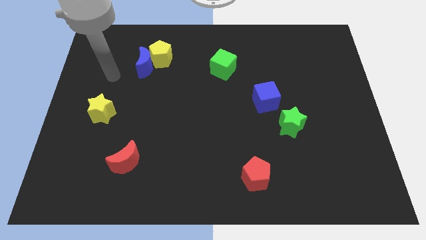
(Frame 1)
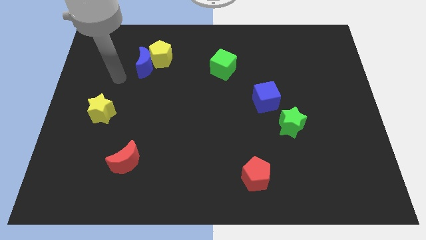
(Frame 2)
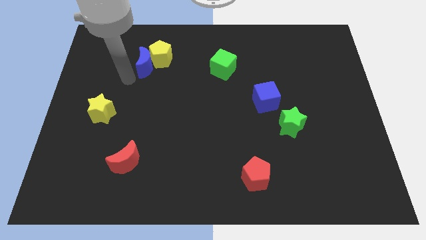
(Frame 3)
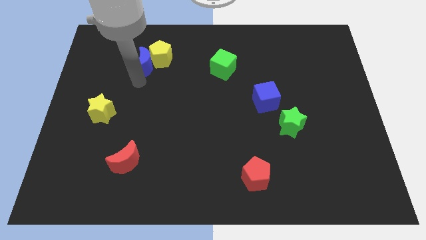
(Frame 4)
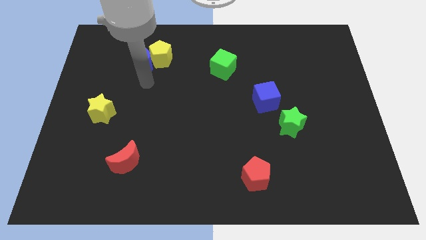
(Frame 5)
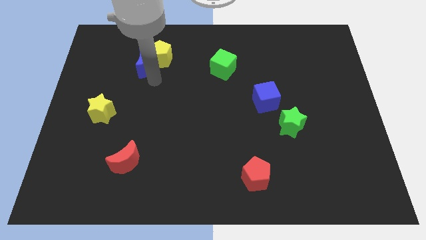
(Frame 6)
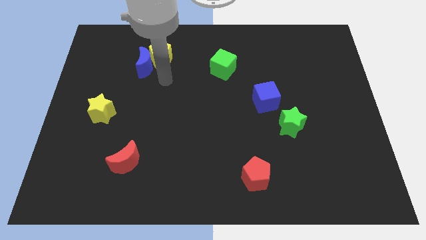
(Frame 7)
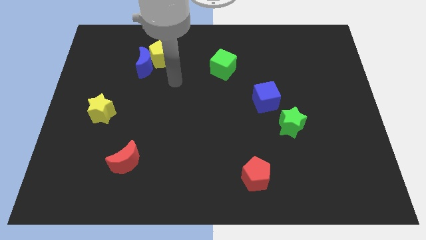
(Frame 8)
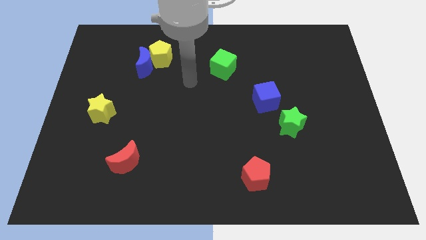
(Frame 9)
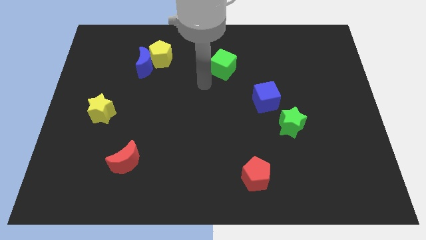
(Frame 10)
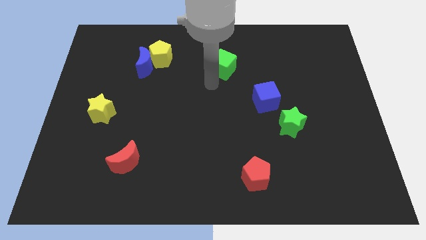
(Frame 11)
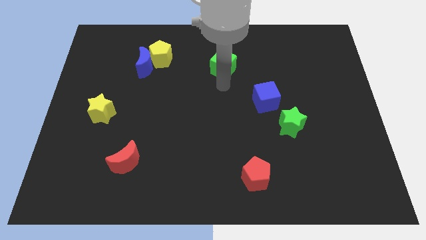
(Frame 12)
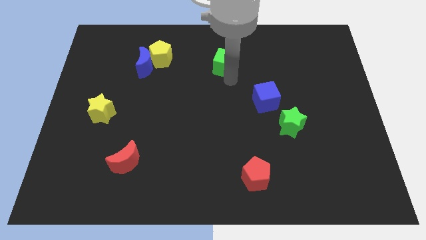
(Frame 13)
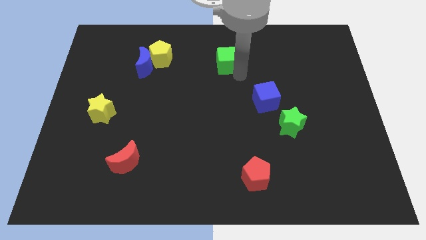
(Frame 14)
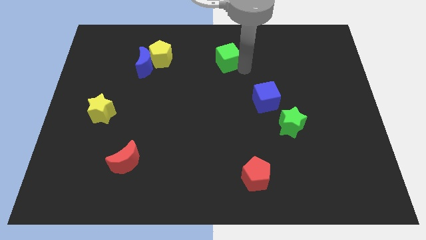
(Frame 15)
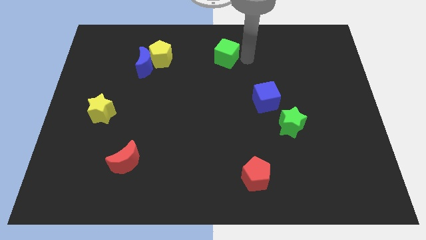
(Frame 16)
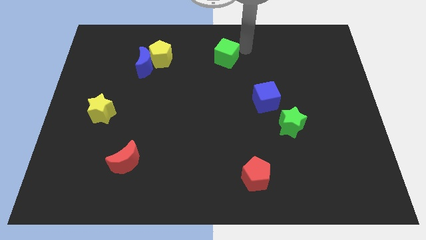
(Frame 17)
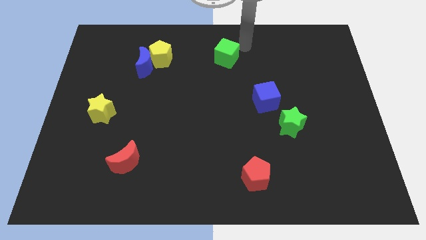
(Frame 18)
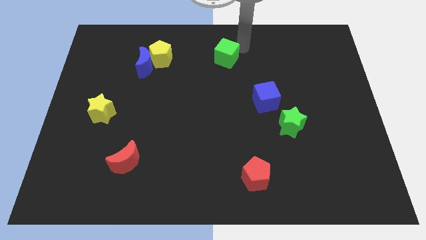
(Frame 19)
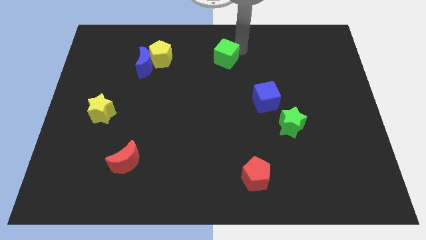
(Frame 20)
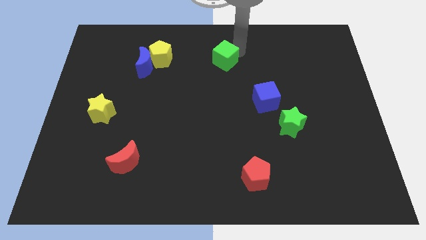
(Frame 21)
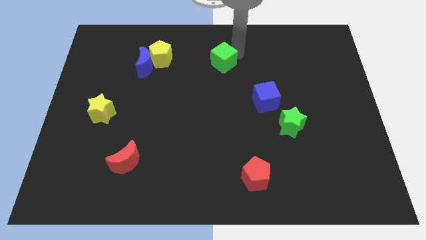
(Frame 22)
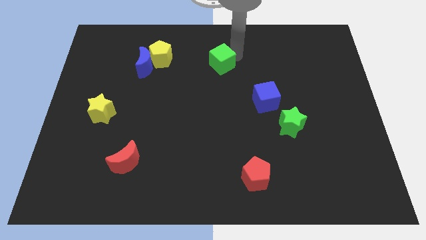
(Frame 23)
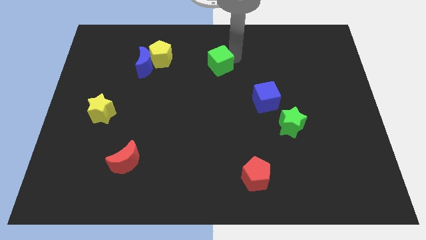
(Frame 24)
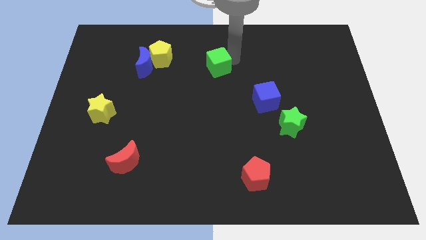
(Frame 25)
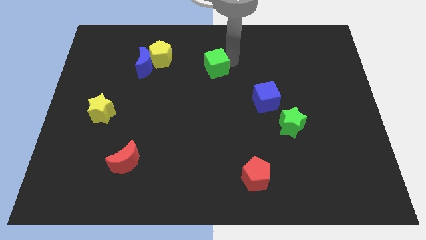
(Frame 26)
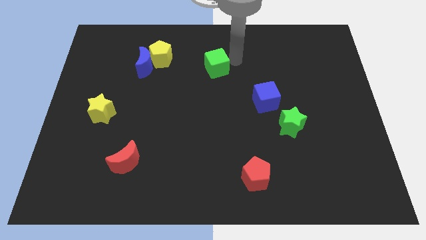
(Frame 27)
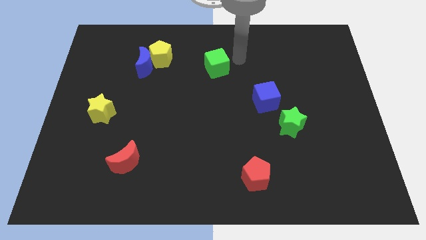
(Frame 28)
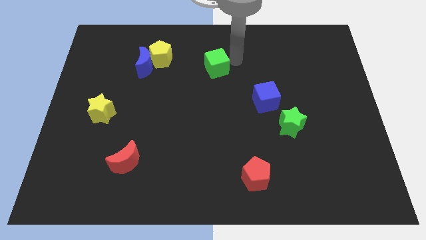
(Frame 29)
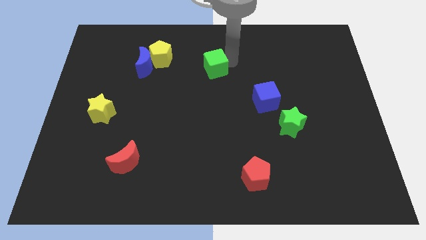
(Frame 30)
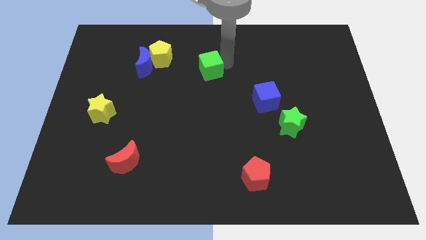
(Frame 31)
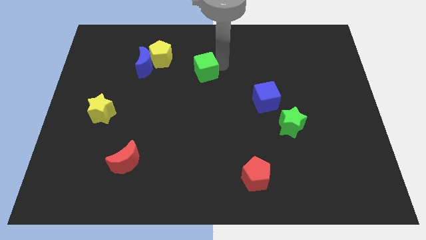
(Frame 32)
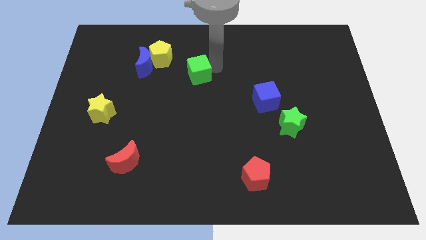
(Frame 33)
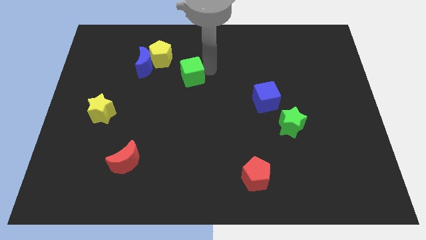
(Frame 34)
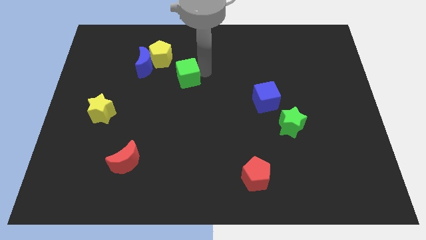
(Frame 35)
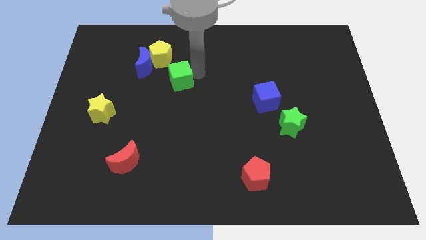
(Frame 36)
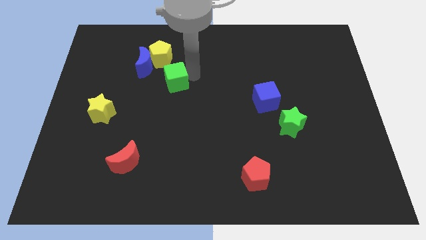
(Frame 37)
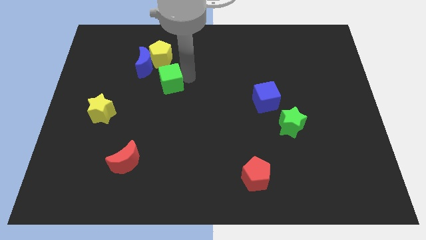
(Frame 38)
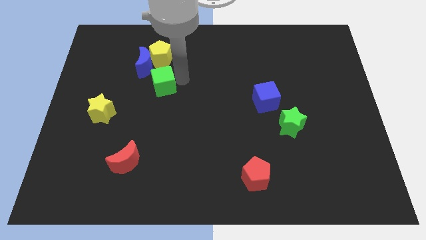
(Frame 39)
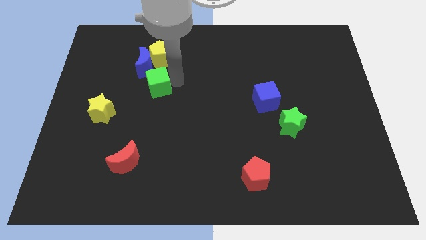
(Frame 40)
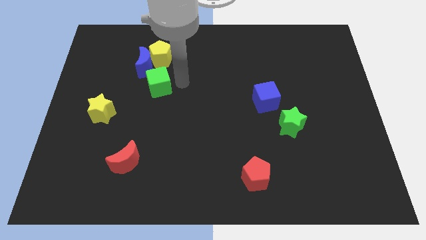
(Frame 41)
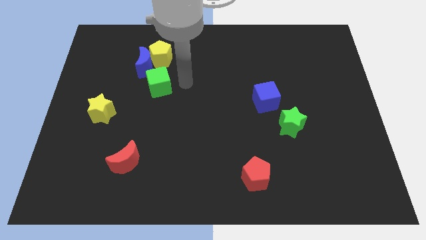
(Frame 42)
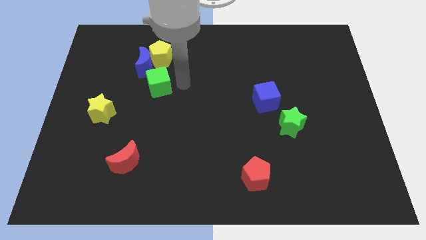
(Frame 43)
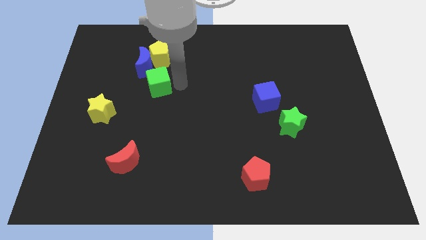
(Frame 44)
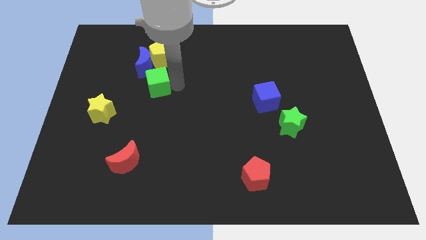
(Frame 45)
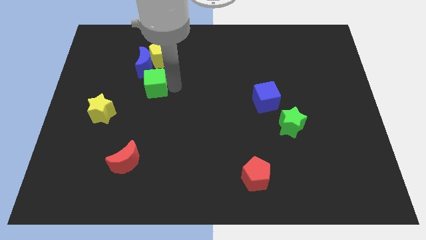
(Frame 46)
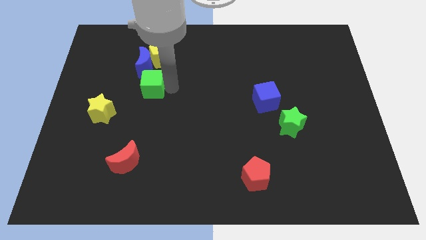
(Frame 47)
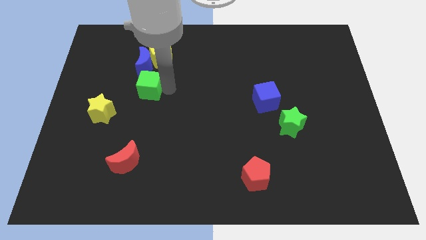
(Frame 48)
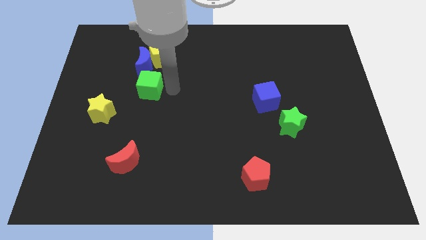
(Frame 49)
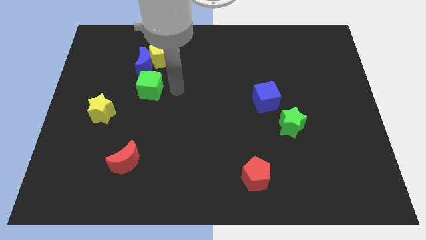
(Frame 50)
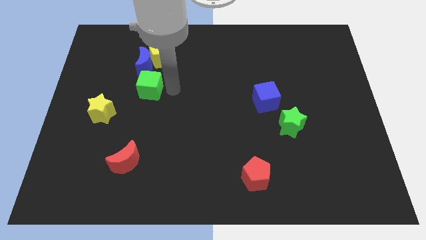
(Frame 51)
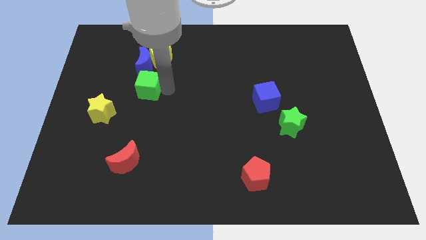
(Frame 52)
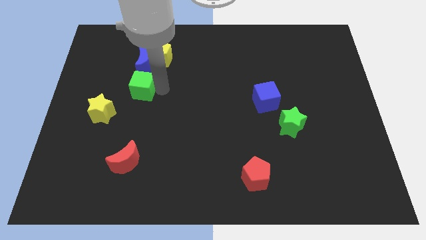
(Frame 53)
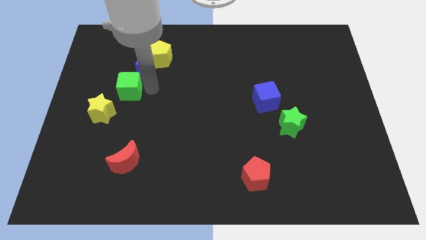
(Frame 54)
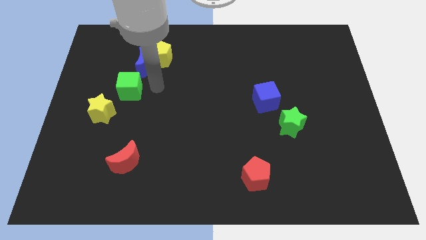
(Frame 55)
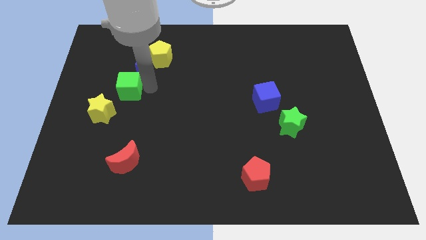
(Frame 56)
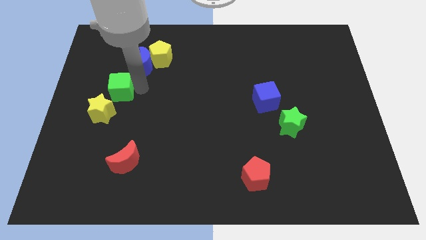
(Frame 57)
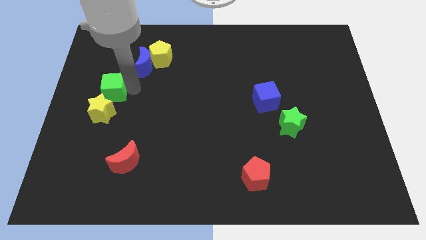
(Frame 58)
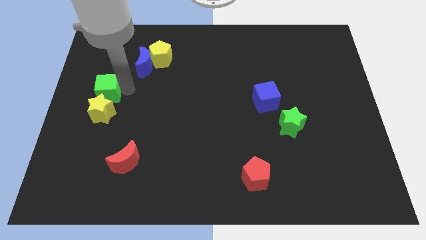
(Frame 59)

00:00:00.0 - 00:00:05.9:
put the green cube to the center left
